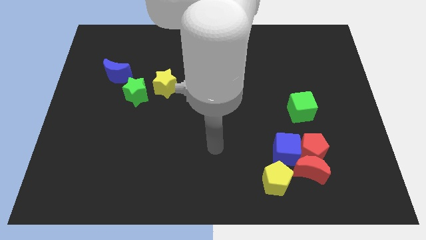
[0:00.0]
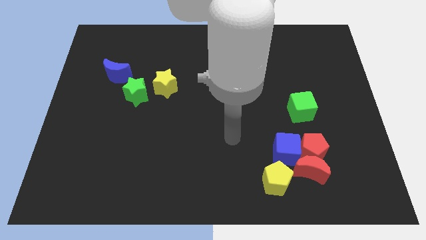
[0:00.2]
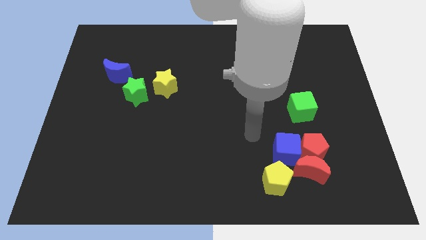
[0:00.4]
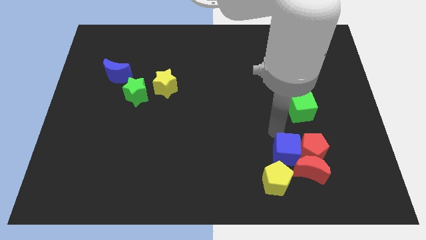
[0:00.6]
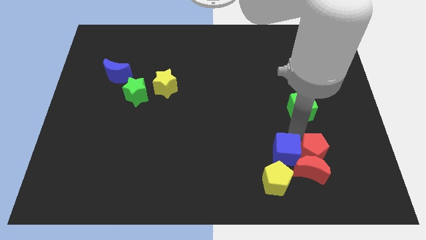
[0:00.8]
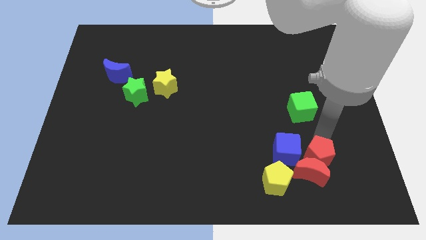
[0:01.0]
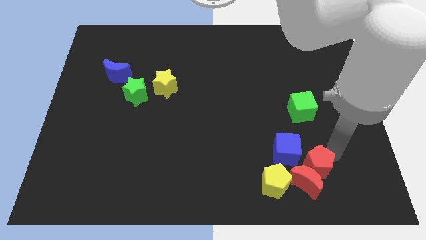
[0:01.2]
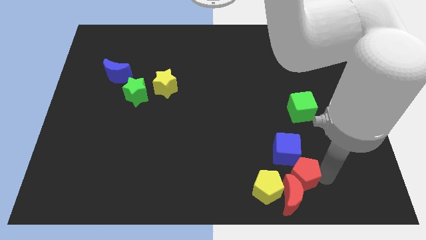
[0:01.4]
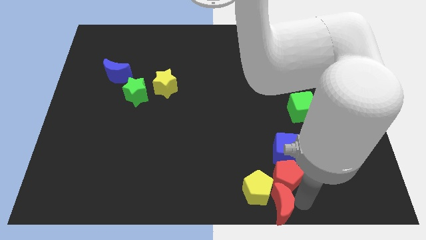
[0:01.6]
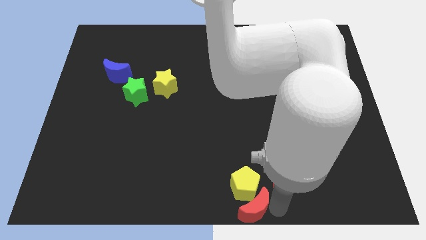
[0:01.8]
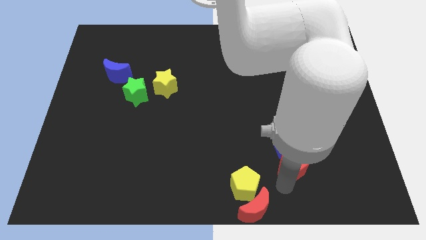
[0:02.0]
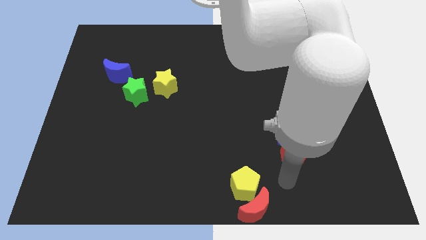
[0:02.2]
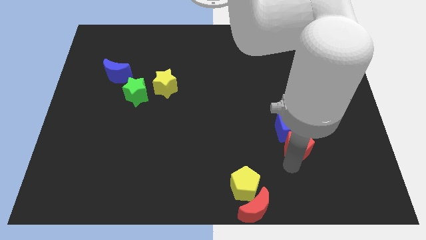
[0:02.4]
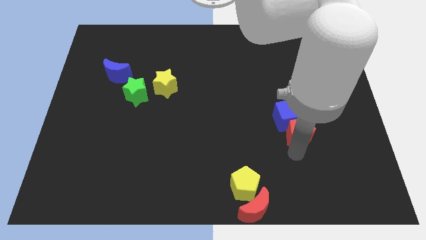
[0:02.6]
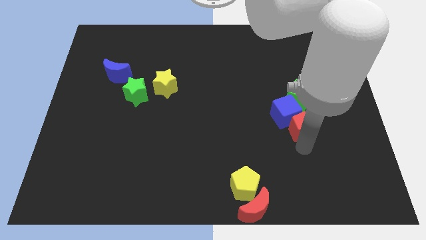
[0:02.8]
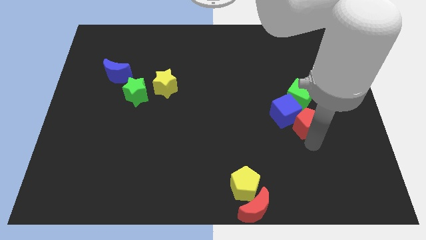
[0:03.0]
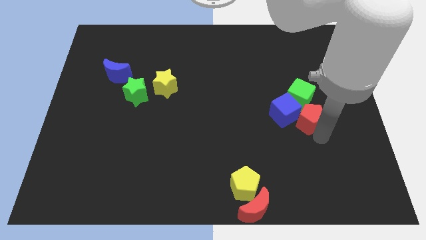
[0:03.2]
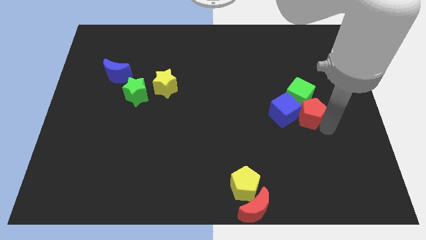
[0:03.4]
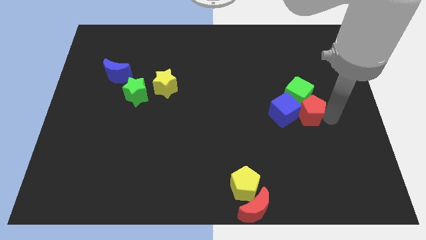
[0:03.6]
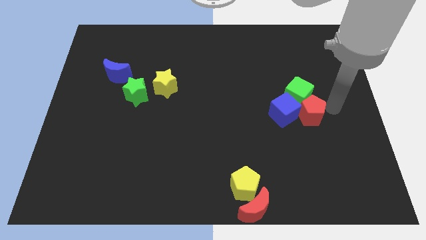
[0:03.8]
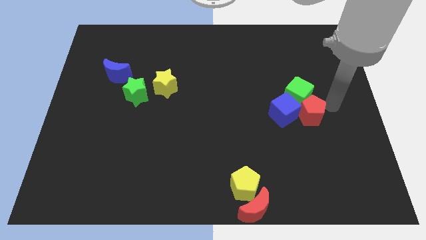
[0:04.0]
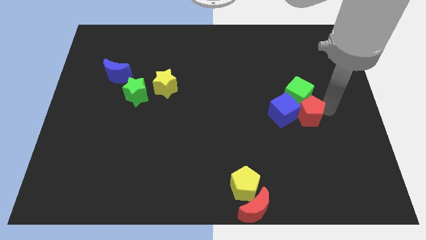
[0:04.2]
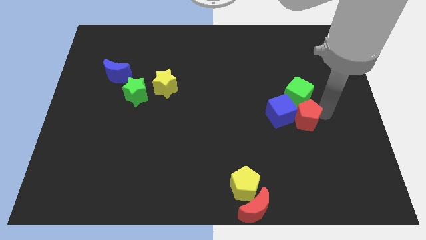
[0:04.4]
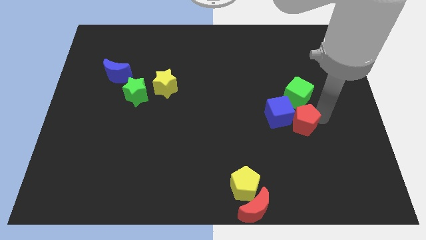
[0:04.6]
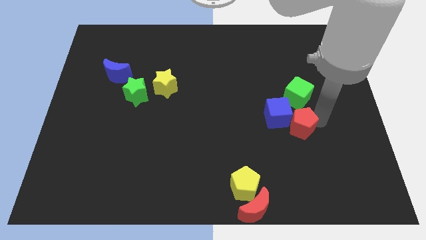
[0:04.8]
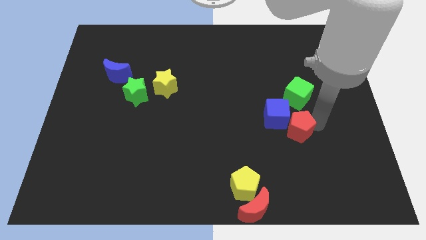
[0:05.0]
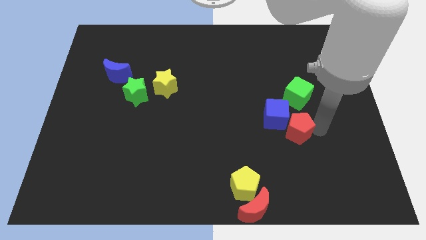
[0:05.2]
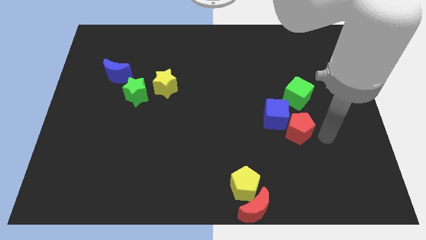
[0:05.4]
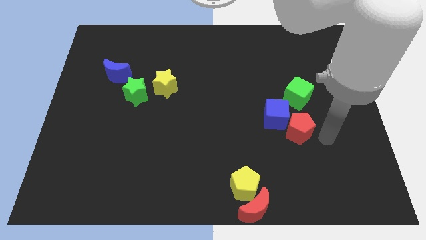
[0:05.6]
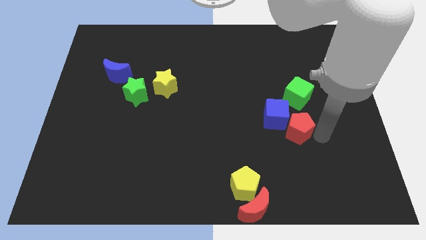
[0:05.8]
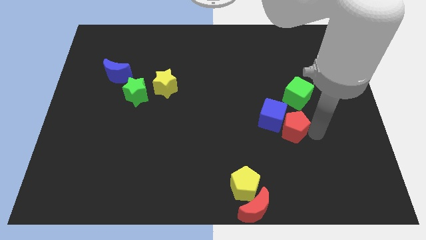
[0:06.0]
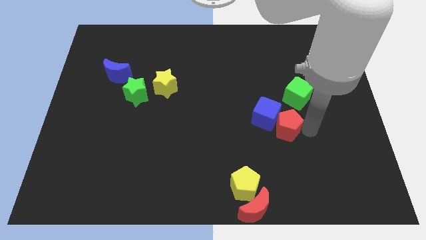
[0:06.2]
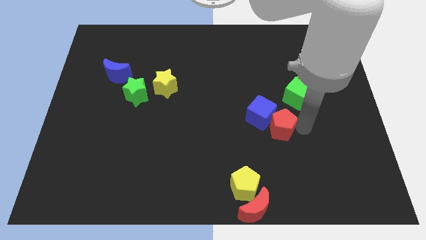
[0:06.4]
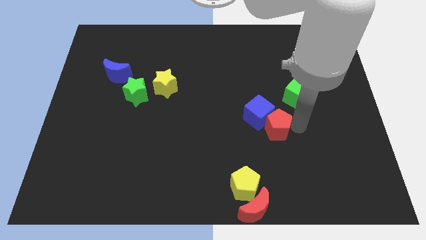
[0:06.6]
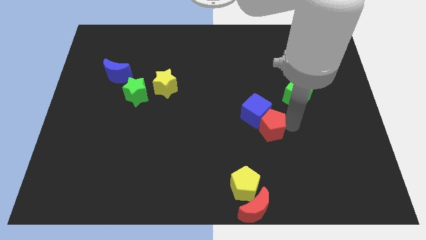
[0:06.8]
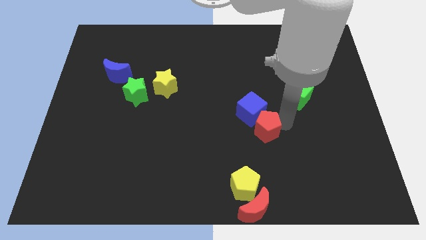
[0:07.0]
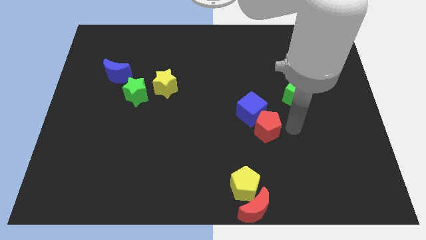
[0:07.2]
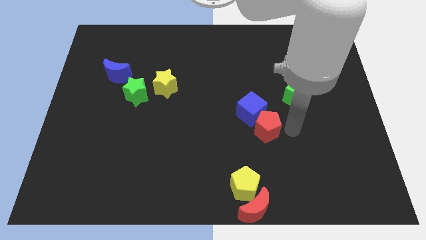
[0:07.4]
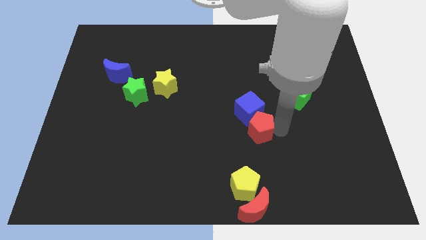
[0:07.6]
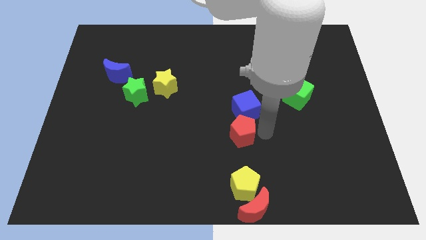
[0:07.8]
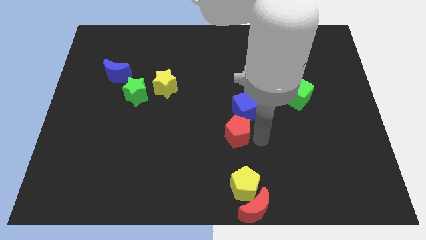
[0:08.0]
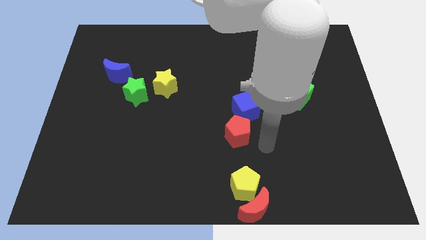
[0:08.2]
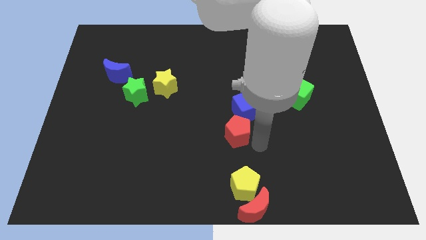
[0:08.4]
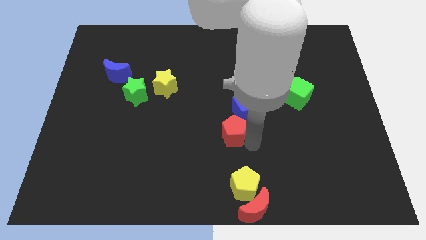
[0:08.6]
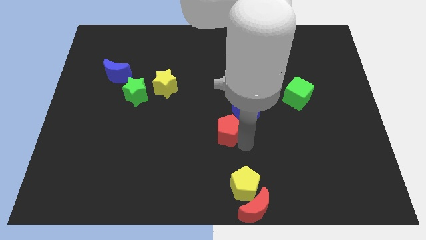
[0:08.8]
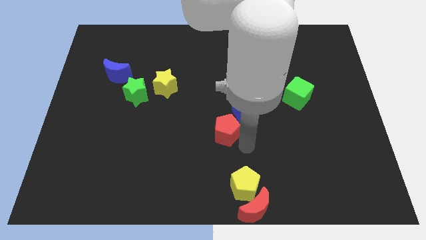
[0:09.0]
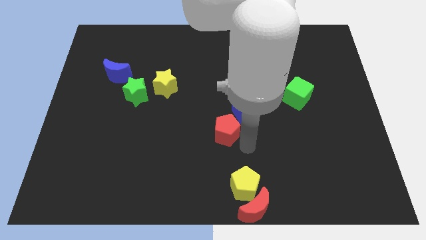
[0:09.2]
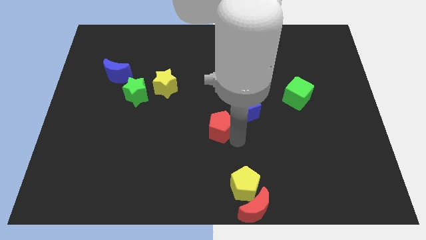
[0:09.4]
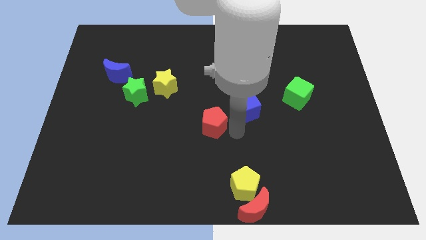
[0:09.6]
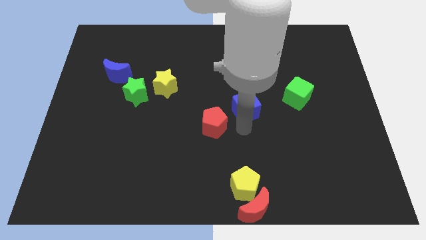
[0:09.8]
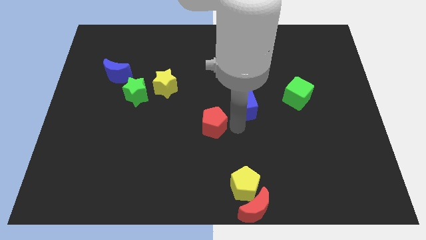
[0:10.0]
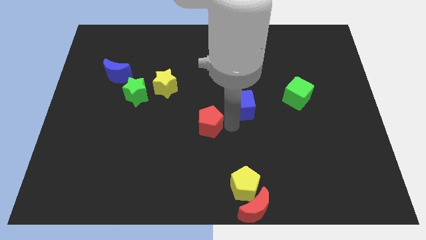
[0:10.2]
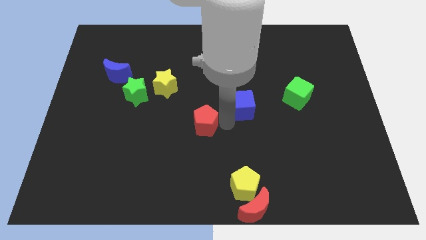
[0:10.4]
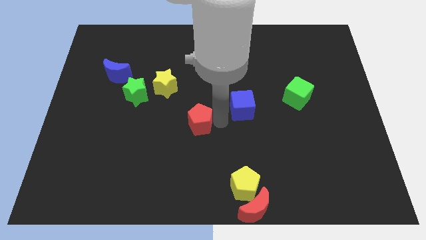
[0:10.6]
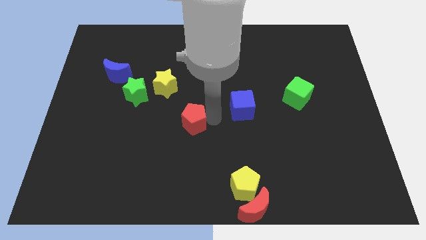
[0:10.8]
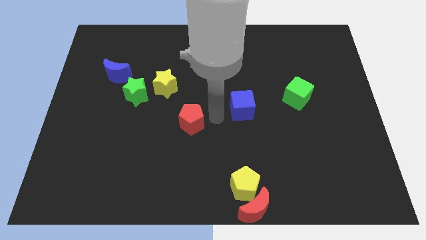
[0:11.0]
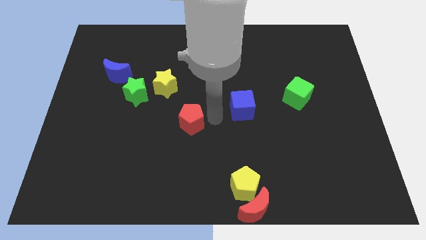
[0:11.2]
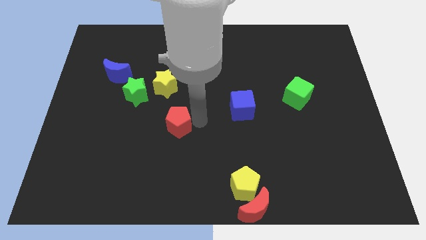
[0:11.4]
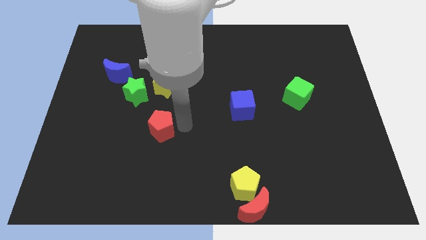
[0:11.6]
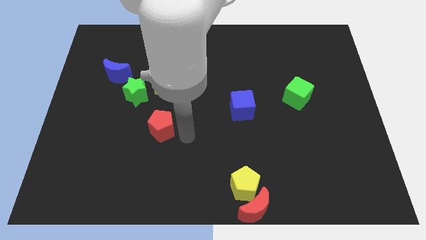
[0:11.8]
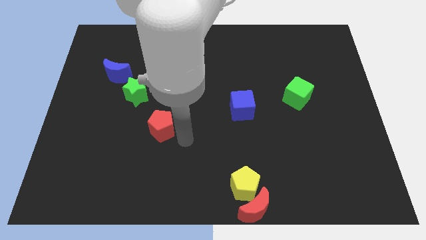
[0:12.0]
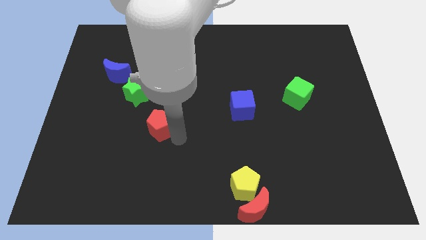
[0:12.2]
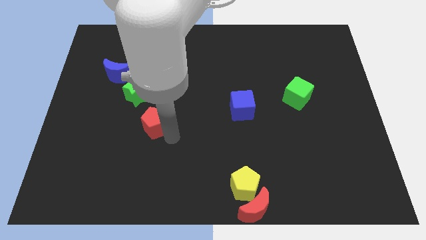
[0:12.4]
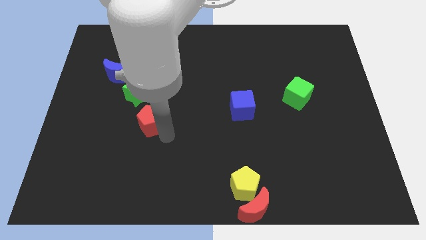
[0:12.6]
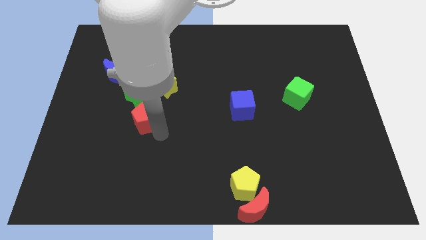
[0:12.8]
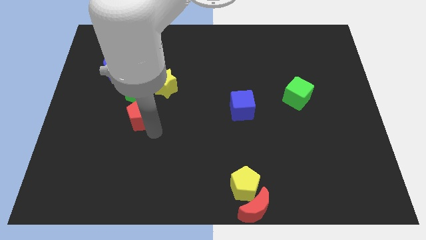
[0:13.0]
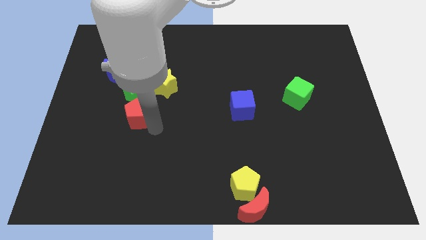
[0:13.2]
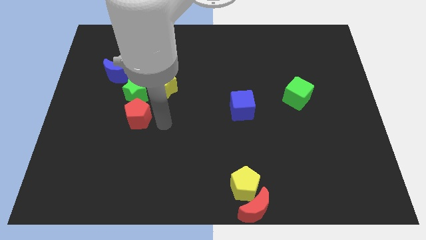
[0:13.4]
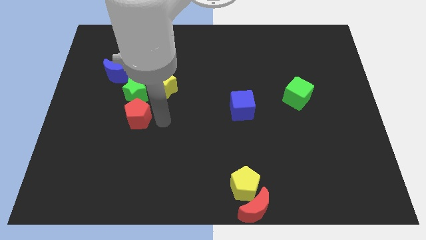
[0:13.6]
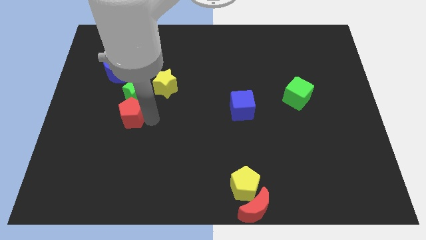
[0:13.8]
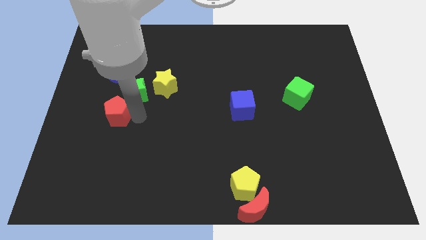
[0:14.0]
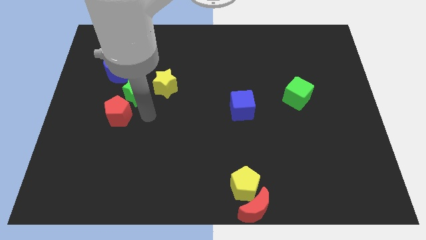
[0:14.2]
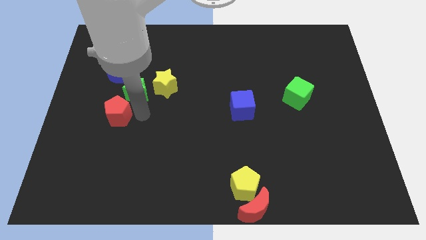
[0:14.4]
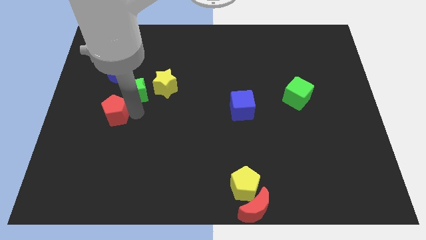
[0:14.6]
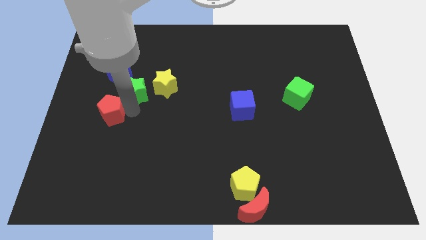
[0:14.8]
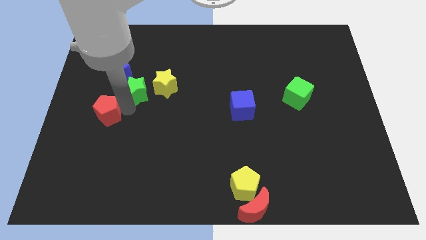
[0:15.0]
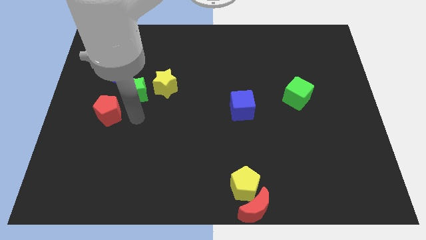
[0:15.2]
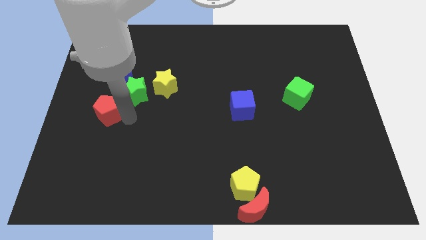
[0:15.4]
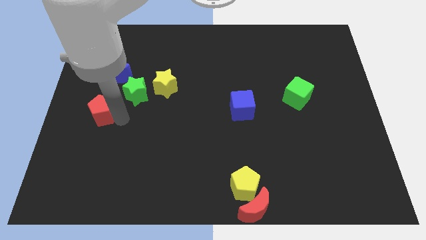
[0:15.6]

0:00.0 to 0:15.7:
put the red pentagon to the left side of the board
